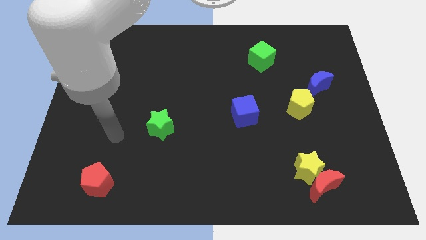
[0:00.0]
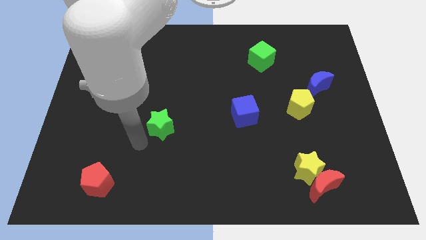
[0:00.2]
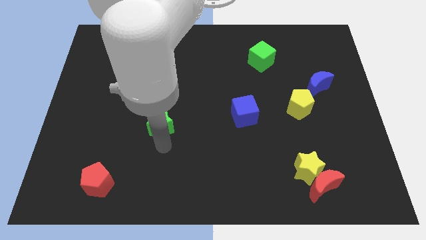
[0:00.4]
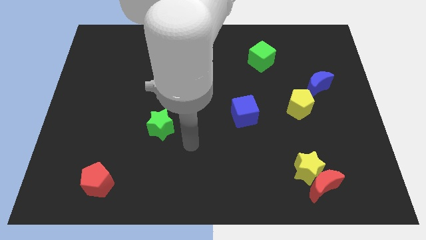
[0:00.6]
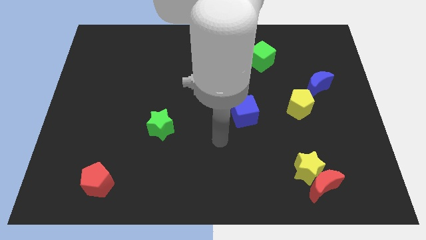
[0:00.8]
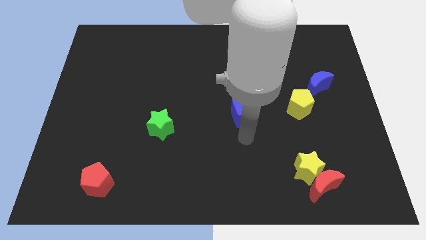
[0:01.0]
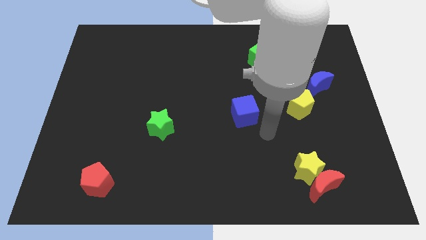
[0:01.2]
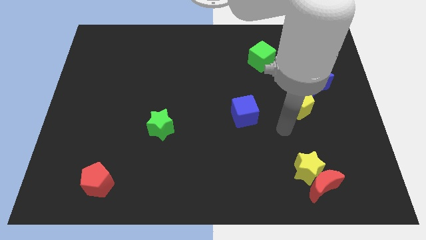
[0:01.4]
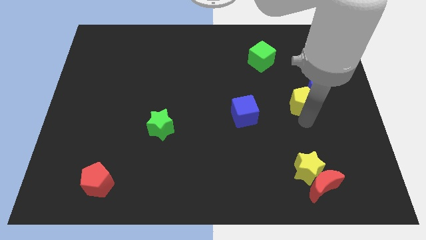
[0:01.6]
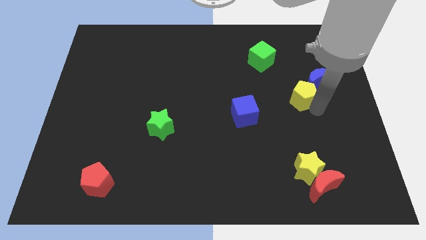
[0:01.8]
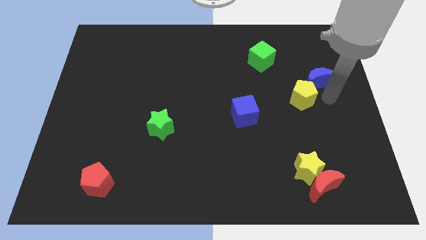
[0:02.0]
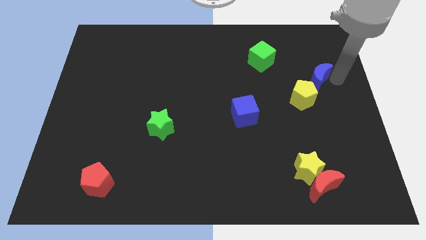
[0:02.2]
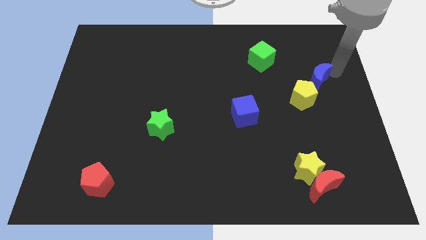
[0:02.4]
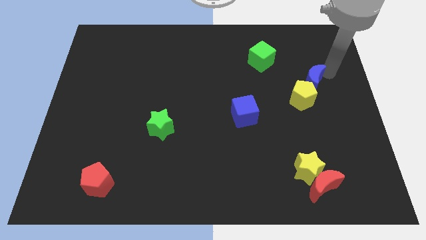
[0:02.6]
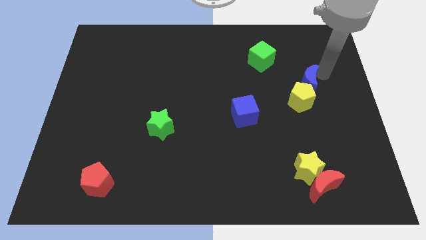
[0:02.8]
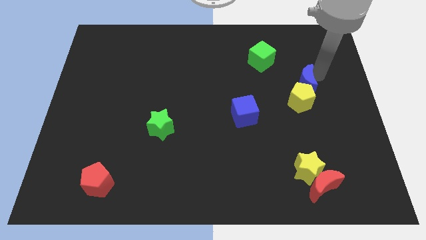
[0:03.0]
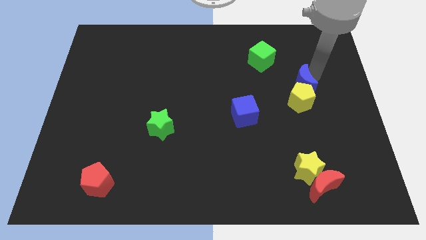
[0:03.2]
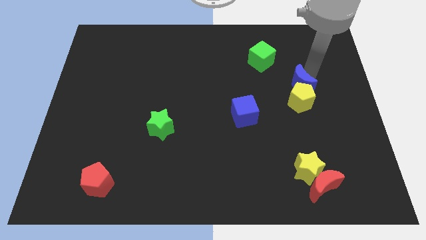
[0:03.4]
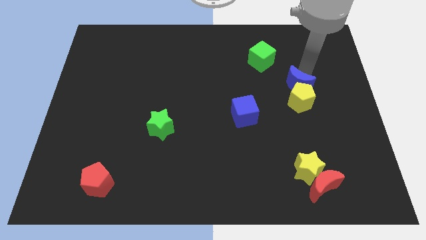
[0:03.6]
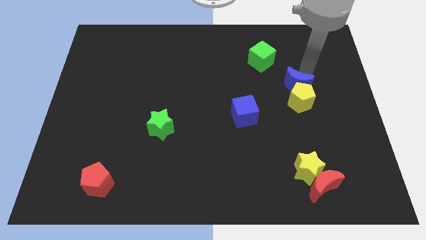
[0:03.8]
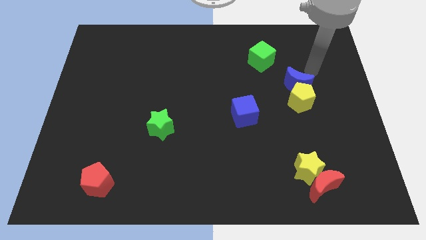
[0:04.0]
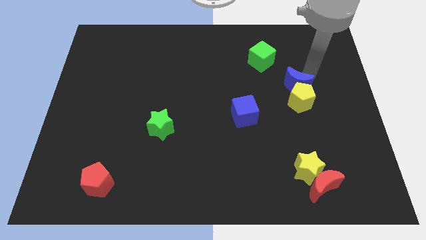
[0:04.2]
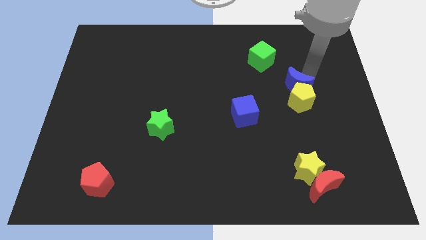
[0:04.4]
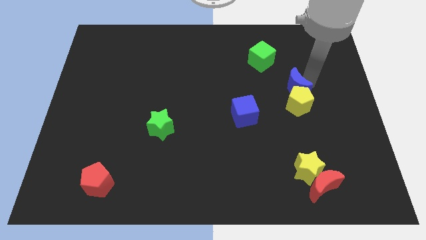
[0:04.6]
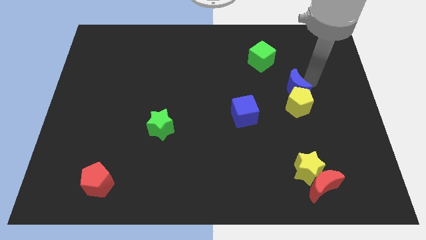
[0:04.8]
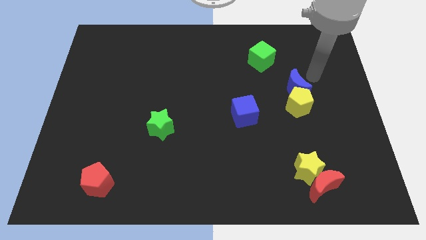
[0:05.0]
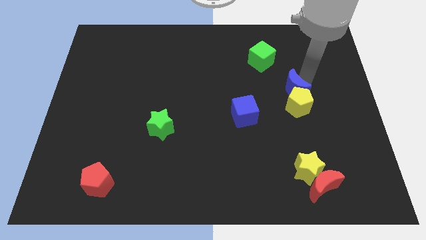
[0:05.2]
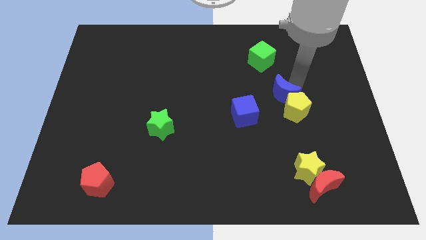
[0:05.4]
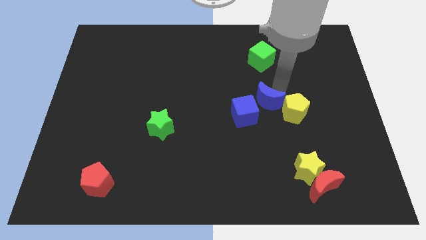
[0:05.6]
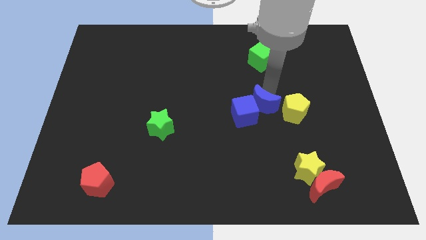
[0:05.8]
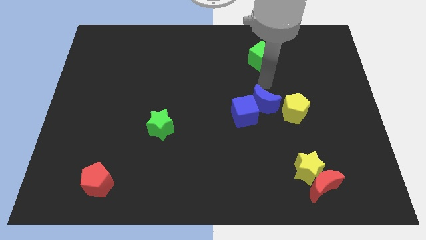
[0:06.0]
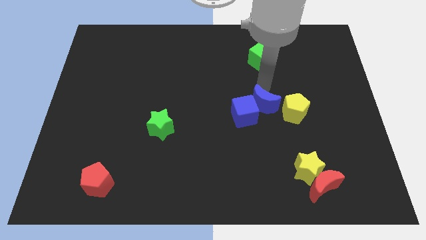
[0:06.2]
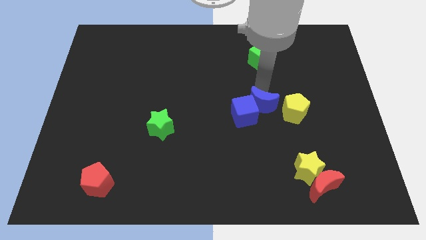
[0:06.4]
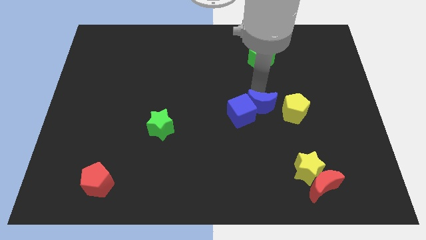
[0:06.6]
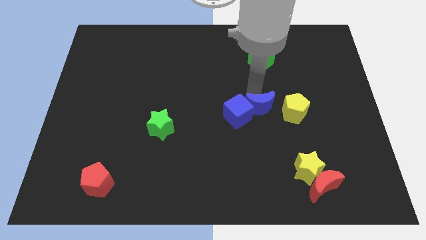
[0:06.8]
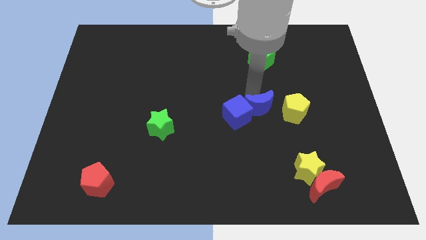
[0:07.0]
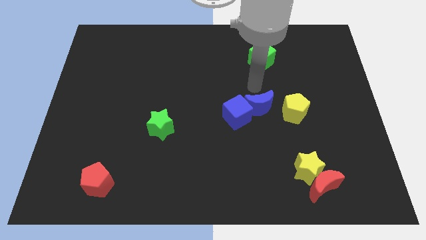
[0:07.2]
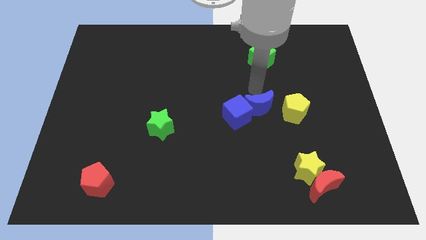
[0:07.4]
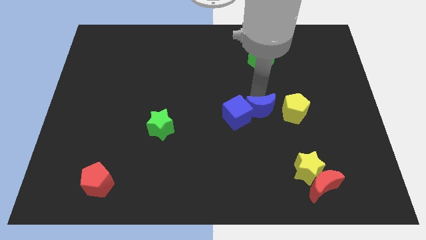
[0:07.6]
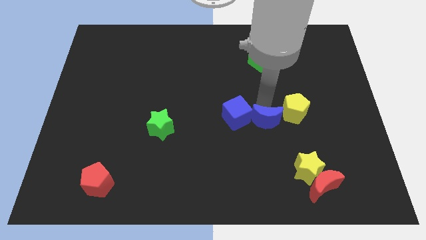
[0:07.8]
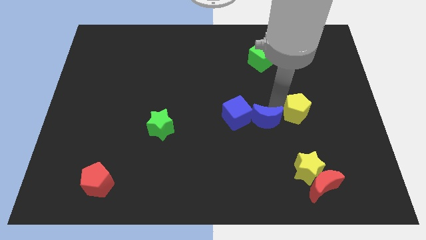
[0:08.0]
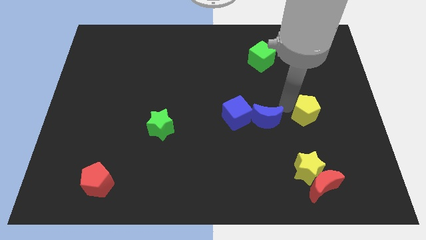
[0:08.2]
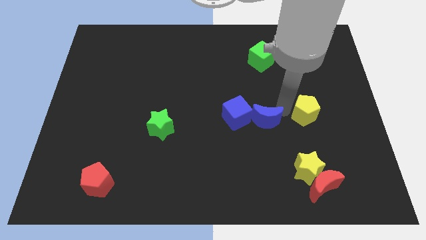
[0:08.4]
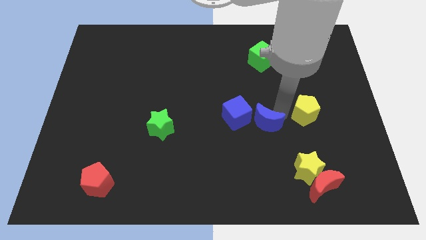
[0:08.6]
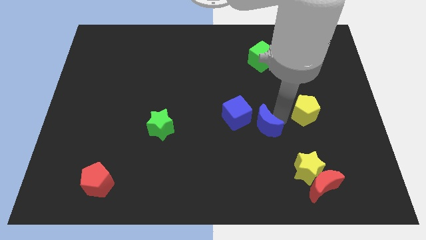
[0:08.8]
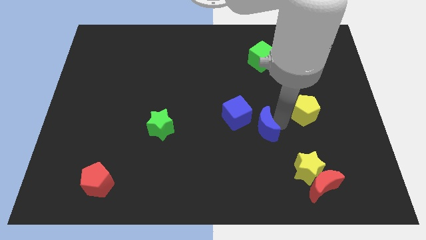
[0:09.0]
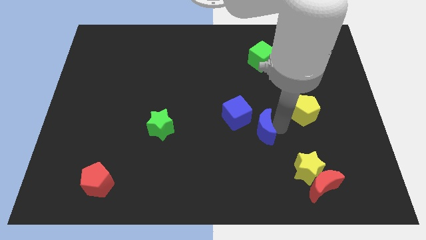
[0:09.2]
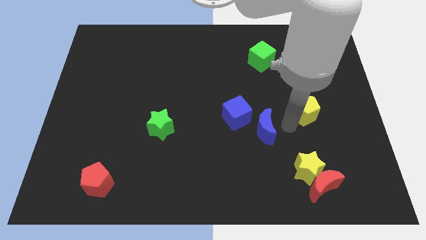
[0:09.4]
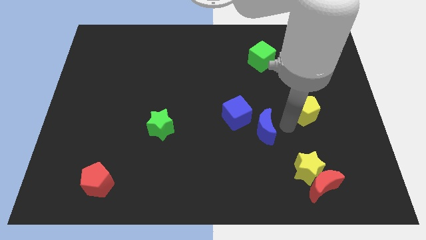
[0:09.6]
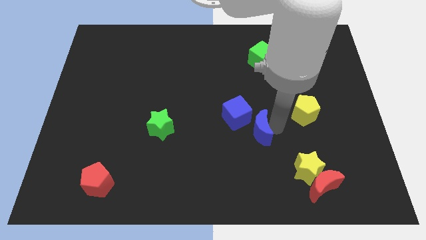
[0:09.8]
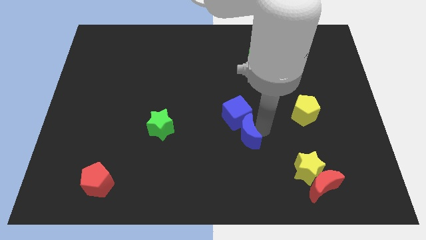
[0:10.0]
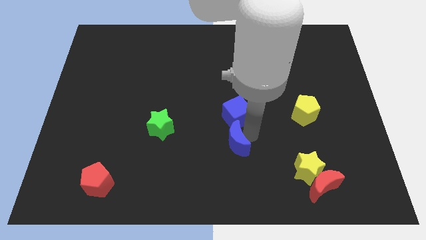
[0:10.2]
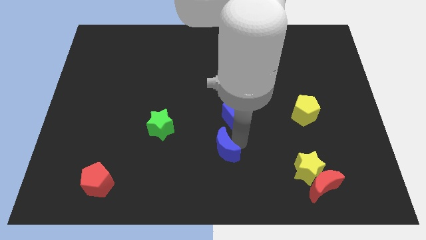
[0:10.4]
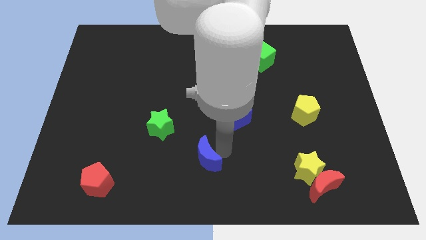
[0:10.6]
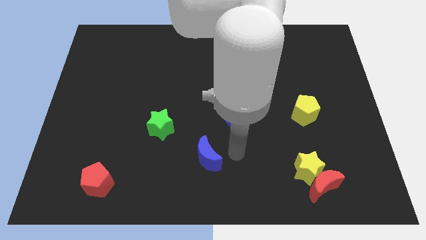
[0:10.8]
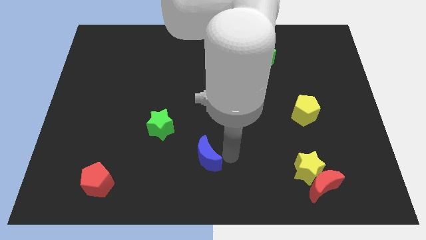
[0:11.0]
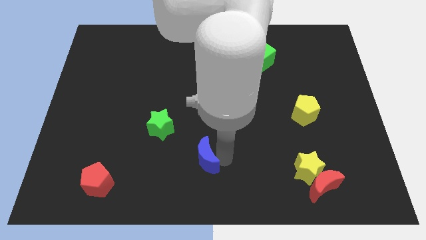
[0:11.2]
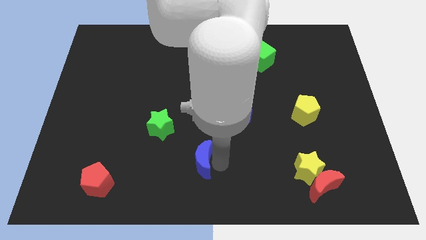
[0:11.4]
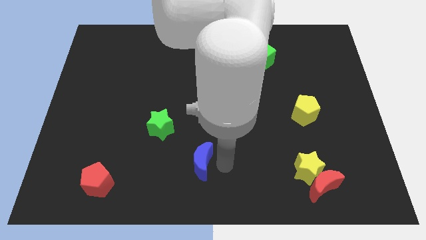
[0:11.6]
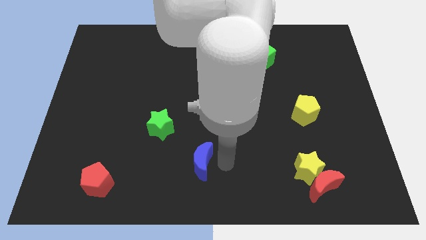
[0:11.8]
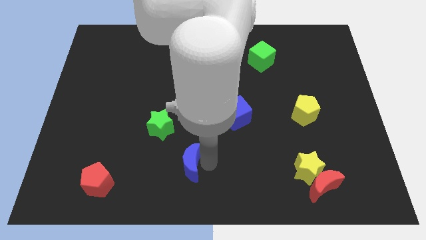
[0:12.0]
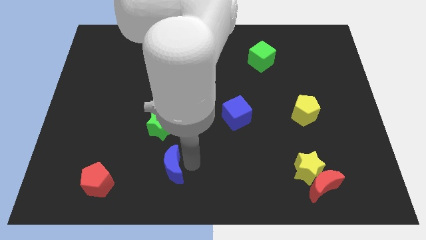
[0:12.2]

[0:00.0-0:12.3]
put the blue moon just right of the red pentagon

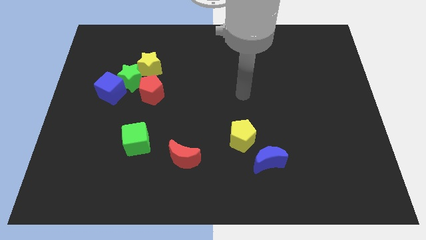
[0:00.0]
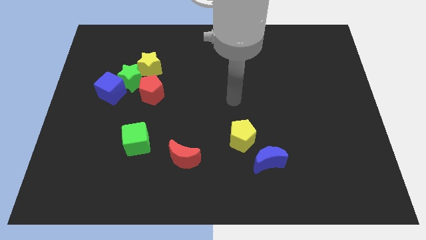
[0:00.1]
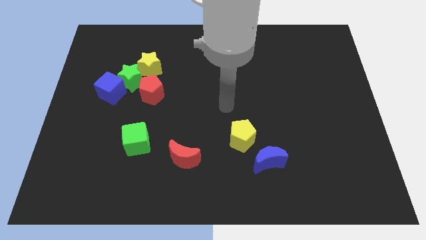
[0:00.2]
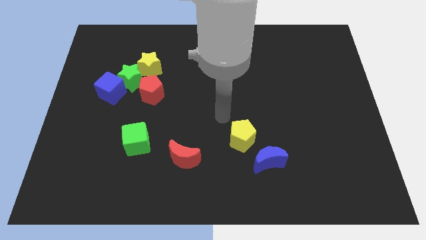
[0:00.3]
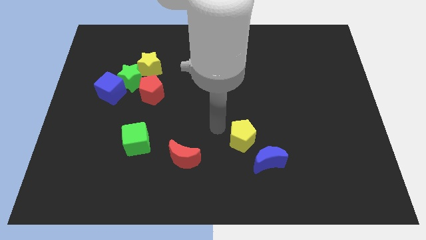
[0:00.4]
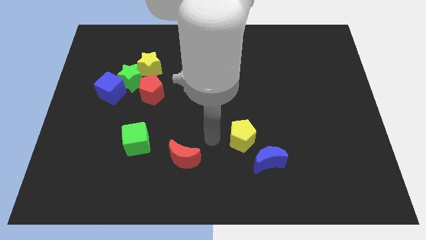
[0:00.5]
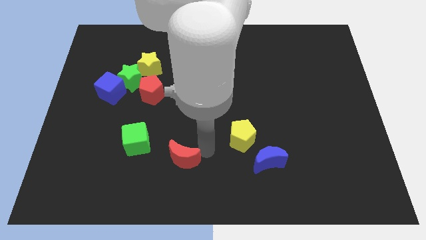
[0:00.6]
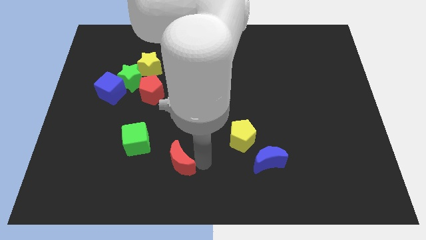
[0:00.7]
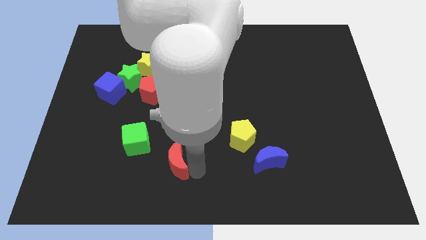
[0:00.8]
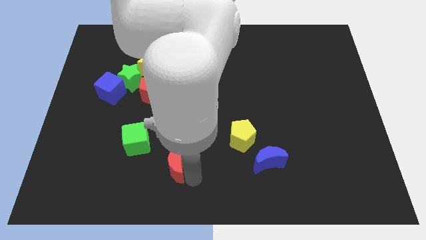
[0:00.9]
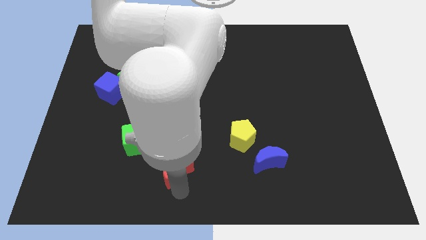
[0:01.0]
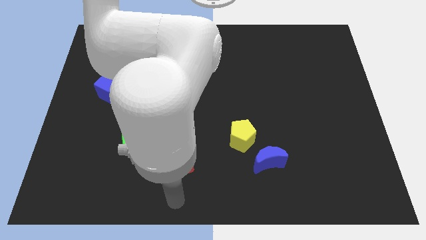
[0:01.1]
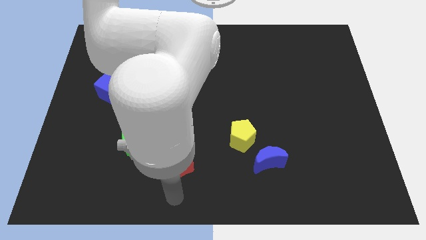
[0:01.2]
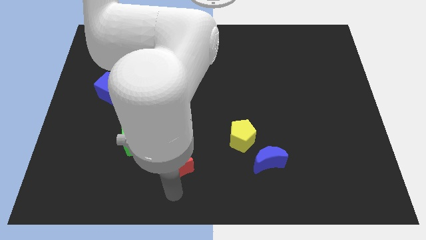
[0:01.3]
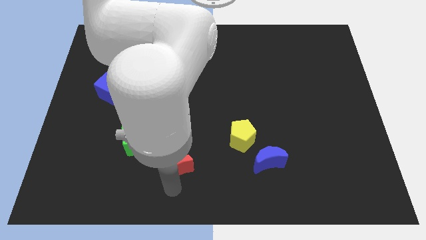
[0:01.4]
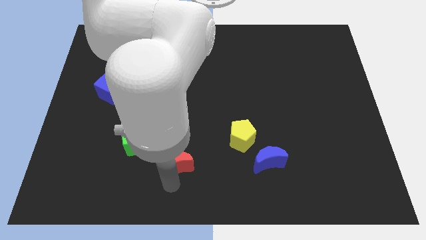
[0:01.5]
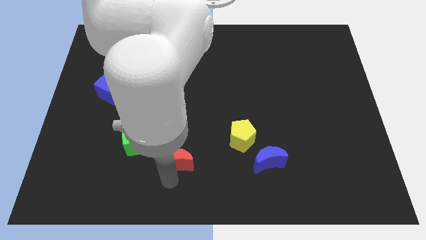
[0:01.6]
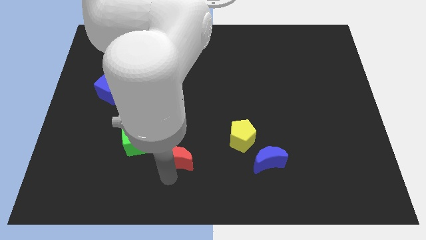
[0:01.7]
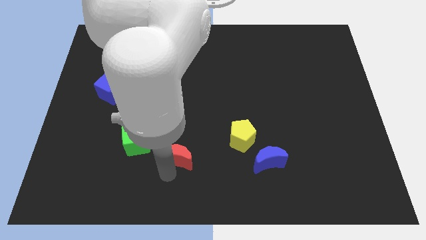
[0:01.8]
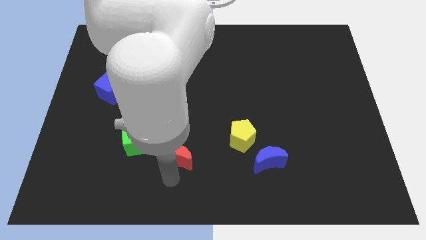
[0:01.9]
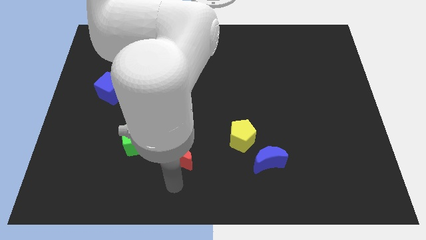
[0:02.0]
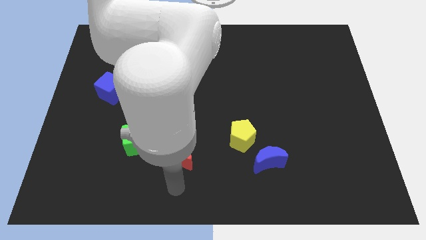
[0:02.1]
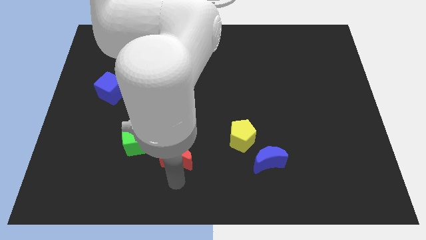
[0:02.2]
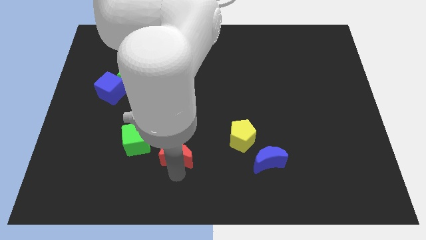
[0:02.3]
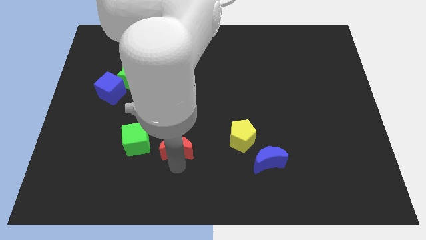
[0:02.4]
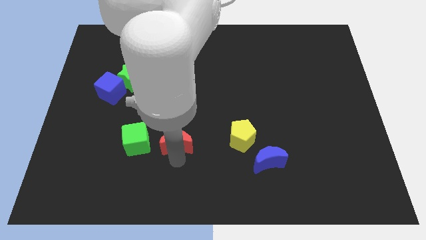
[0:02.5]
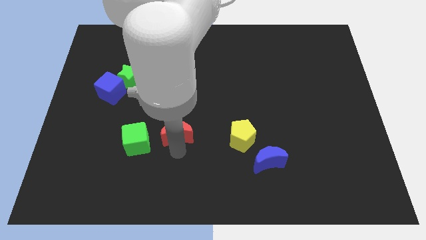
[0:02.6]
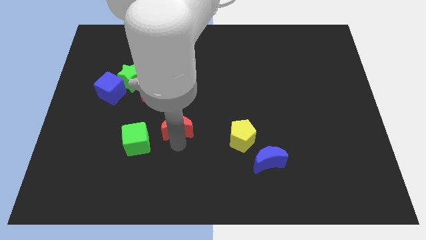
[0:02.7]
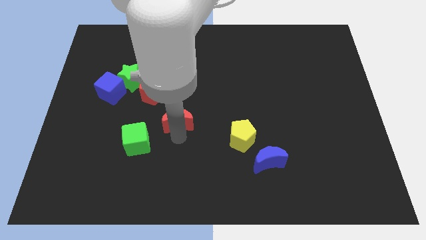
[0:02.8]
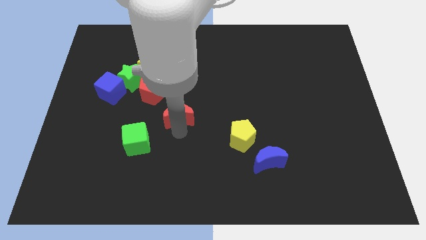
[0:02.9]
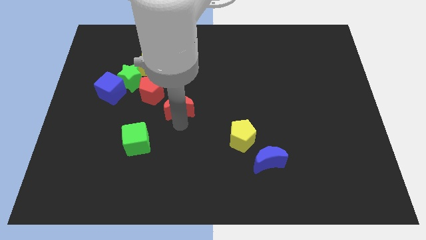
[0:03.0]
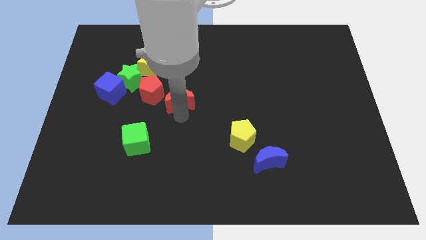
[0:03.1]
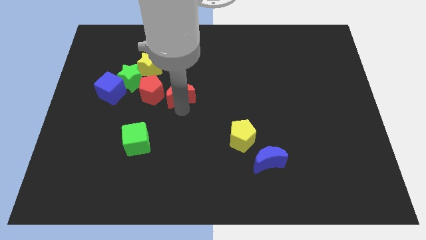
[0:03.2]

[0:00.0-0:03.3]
slide the red moon to the bottom right of the yellow star
